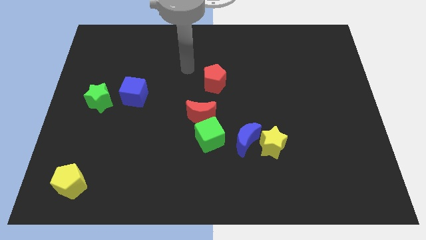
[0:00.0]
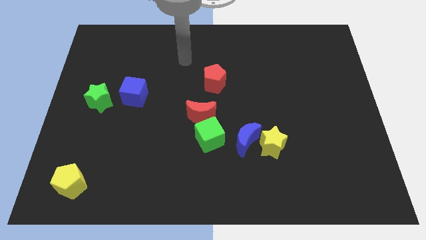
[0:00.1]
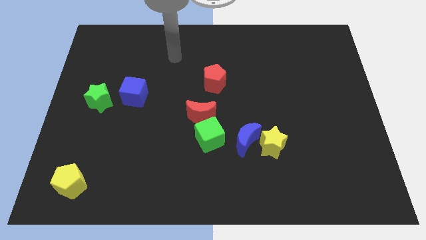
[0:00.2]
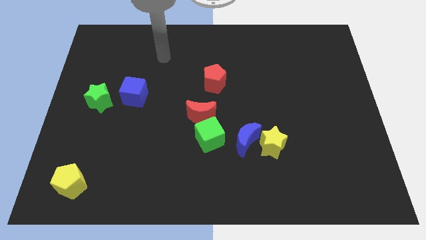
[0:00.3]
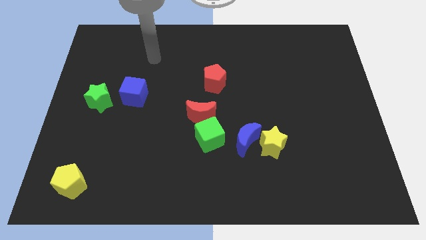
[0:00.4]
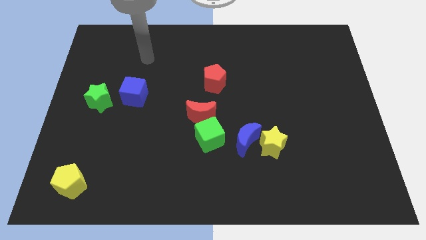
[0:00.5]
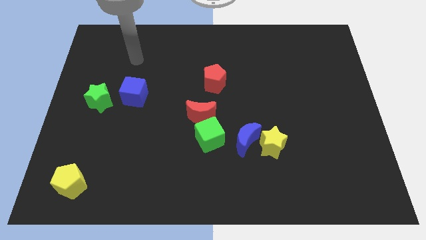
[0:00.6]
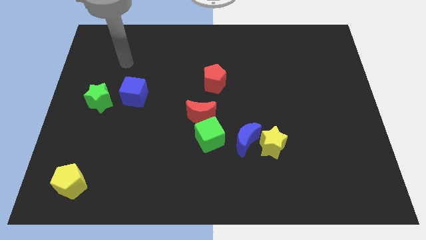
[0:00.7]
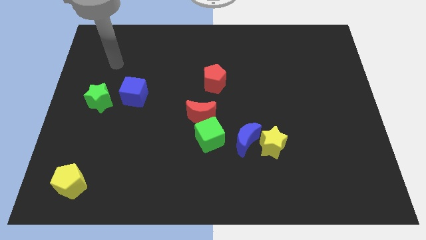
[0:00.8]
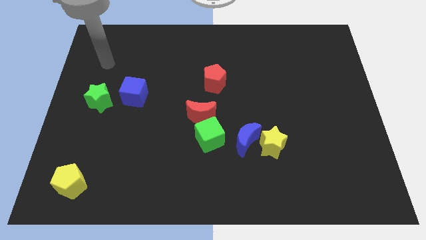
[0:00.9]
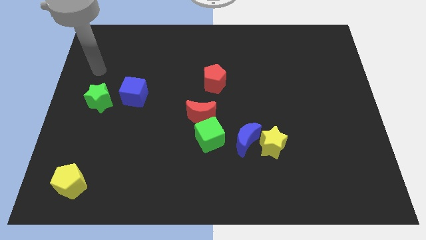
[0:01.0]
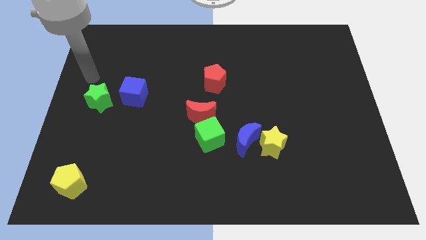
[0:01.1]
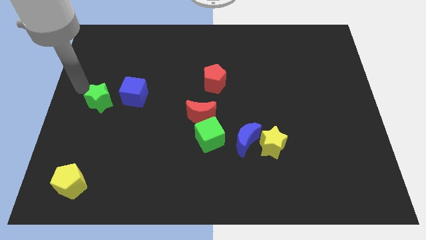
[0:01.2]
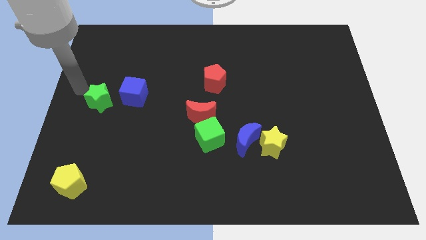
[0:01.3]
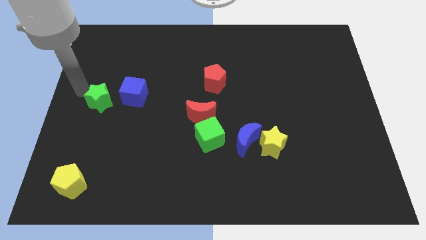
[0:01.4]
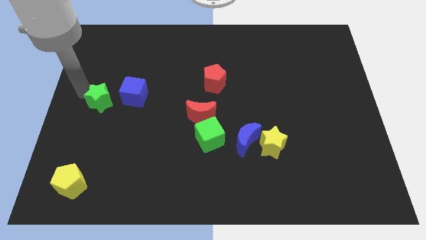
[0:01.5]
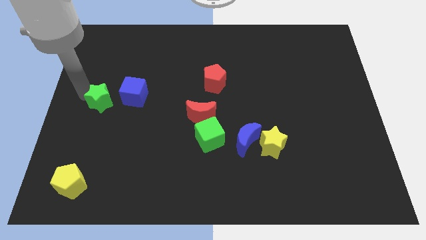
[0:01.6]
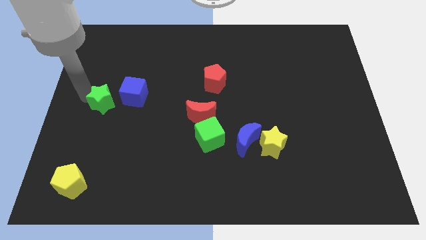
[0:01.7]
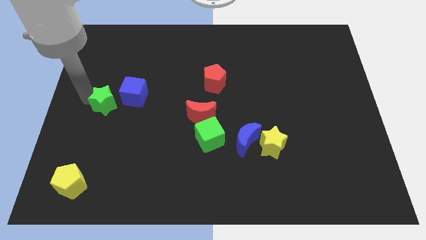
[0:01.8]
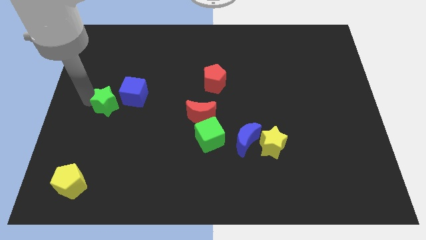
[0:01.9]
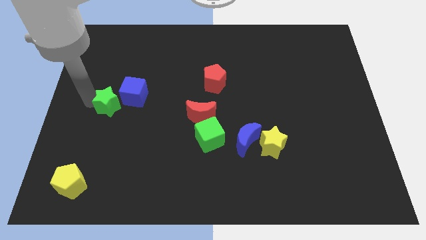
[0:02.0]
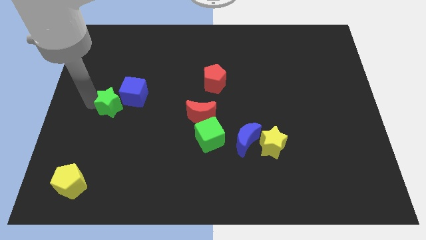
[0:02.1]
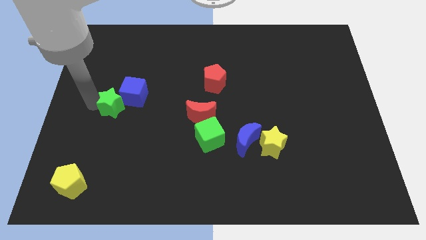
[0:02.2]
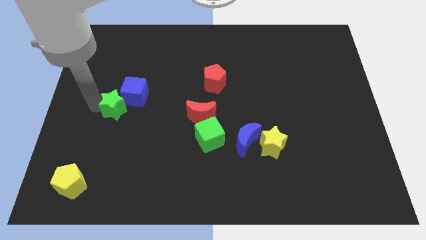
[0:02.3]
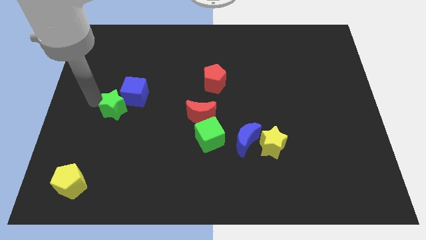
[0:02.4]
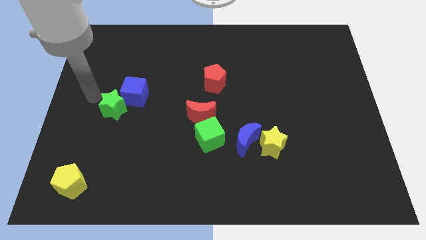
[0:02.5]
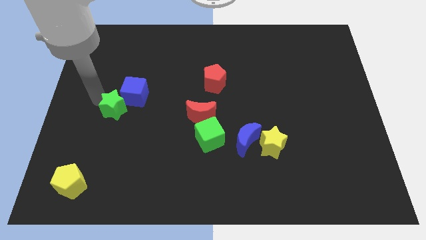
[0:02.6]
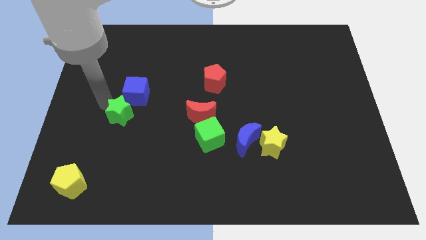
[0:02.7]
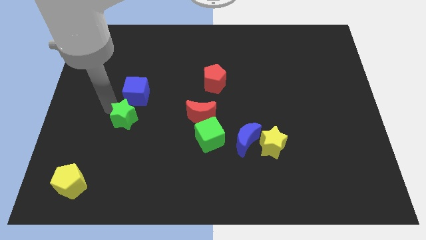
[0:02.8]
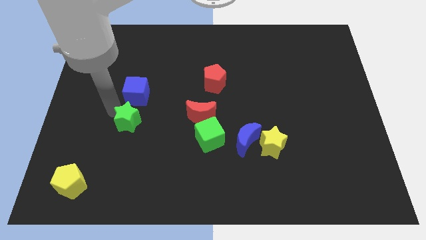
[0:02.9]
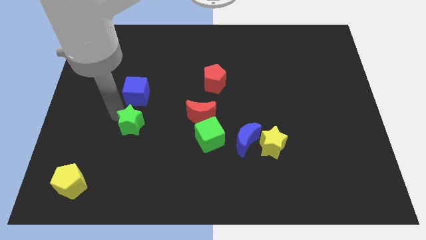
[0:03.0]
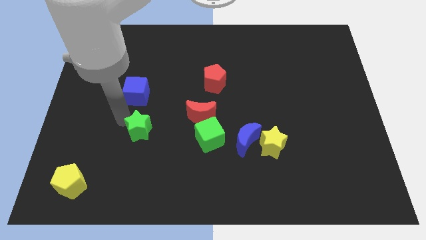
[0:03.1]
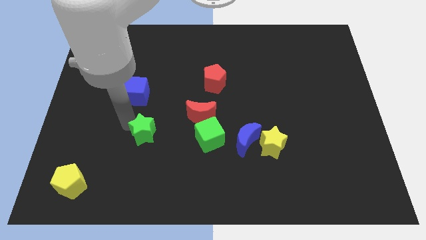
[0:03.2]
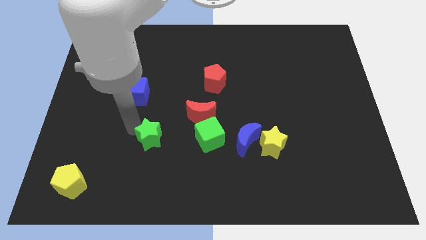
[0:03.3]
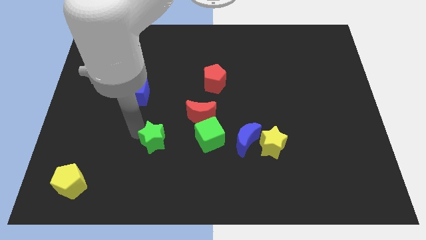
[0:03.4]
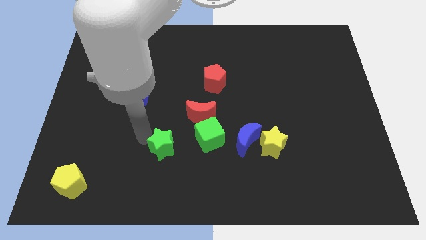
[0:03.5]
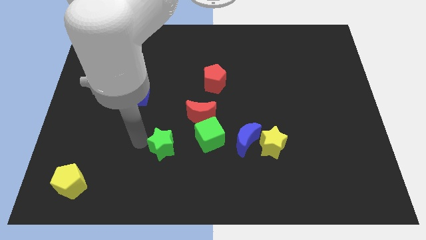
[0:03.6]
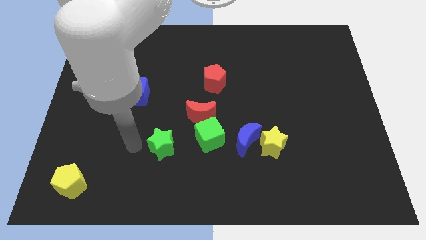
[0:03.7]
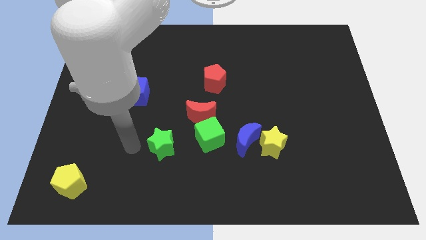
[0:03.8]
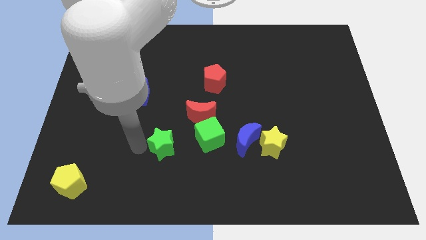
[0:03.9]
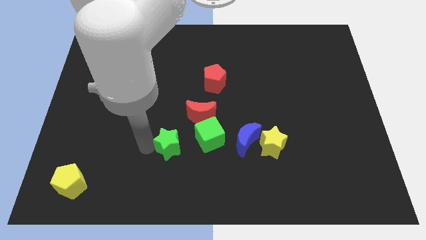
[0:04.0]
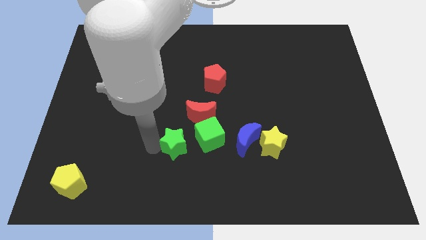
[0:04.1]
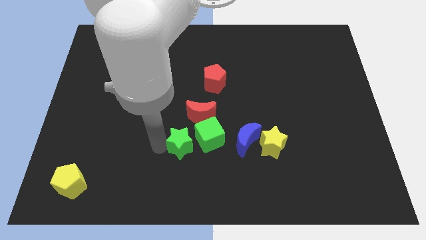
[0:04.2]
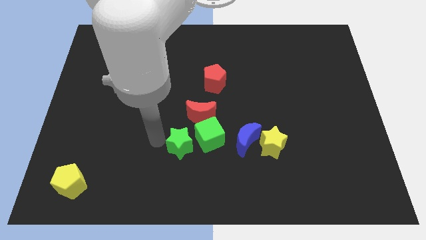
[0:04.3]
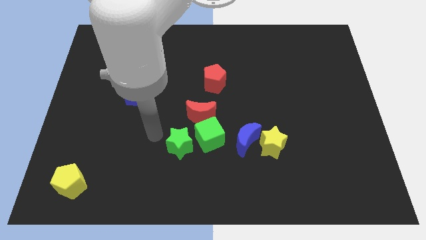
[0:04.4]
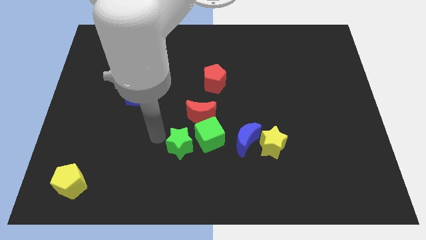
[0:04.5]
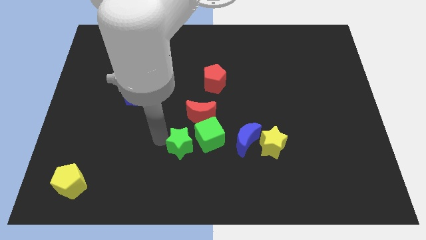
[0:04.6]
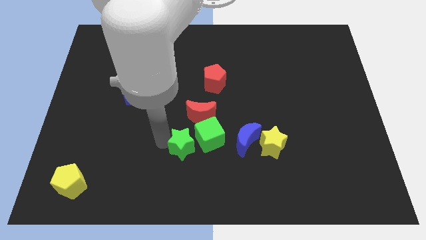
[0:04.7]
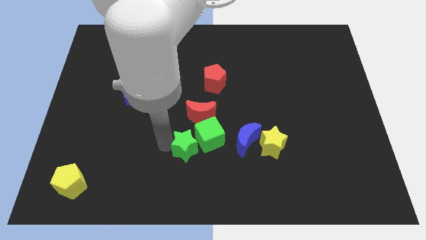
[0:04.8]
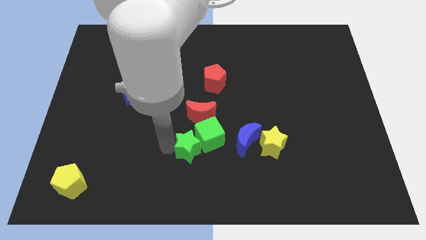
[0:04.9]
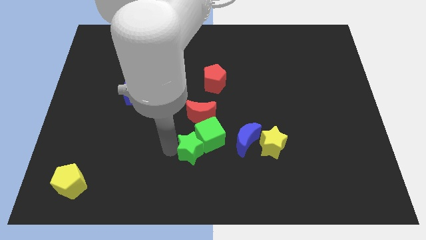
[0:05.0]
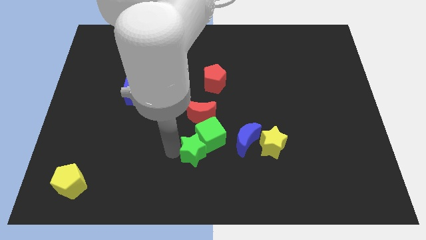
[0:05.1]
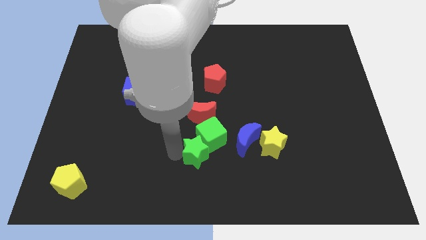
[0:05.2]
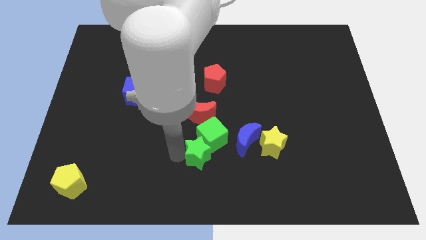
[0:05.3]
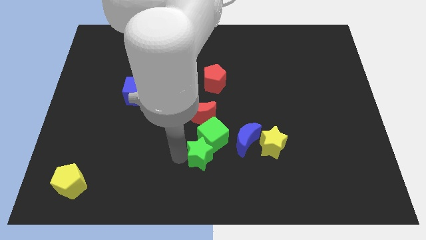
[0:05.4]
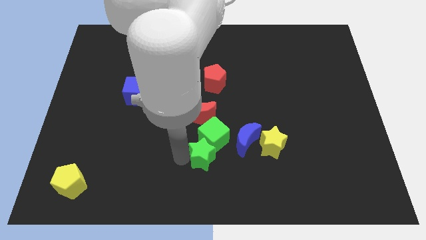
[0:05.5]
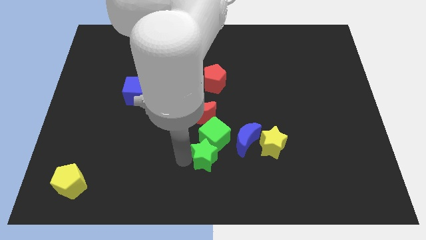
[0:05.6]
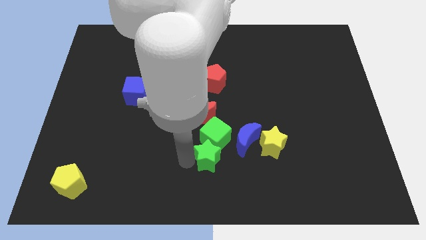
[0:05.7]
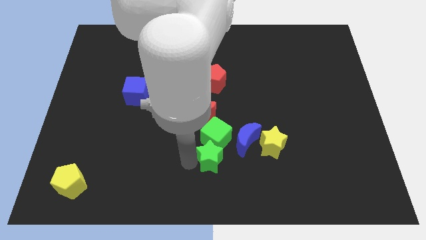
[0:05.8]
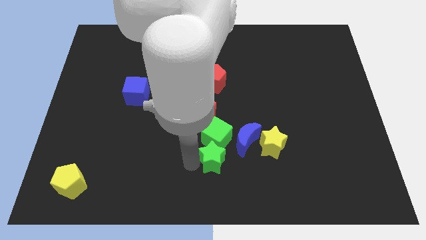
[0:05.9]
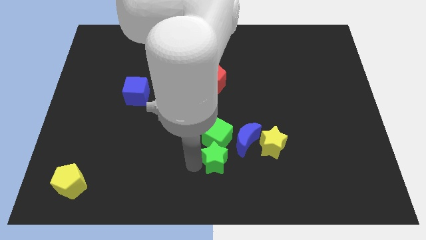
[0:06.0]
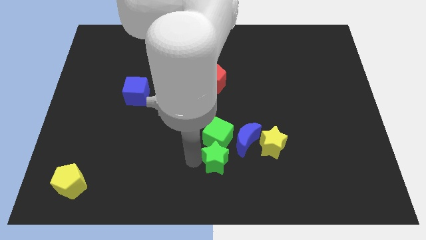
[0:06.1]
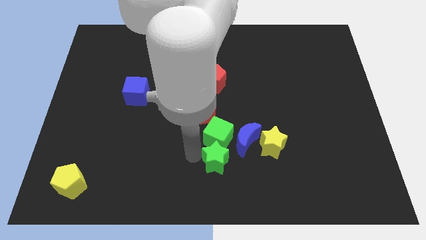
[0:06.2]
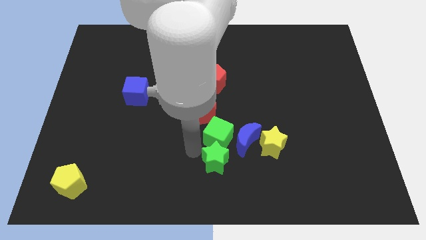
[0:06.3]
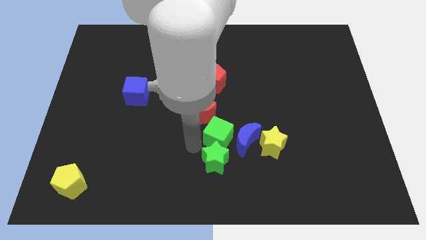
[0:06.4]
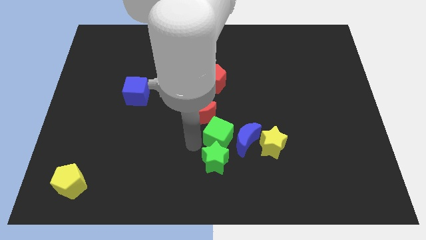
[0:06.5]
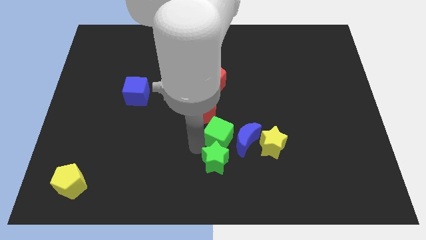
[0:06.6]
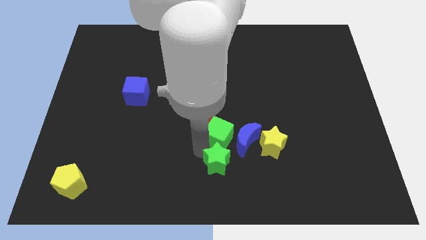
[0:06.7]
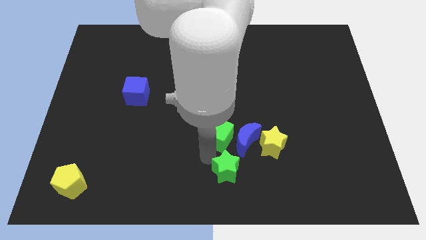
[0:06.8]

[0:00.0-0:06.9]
put the green star to the bottom of the blue moon
